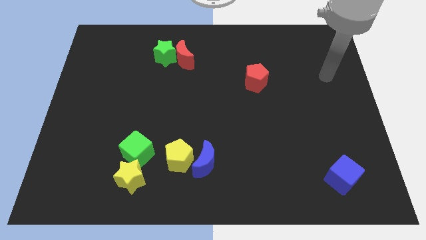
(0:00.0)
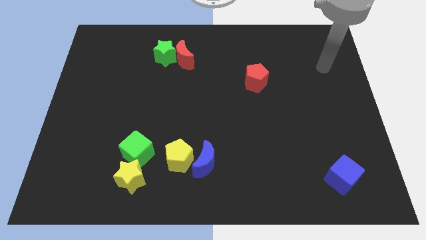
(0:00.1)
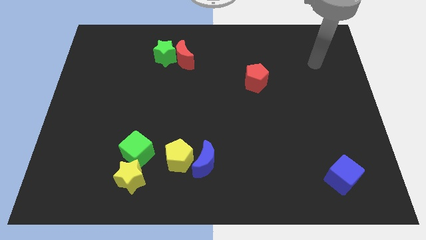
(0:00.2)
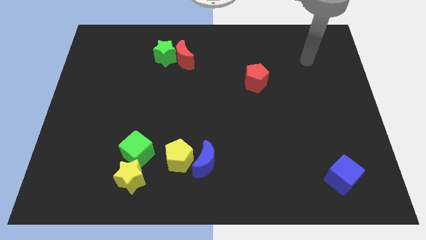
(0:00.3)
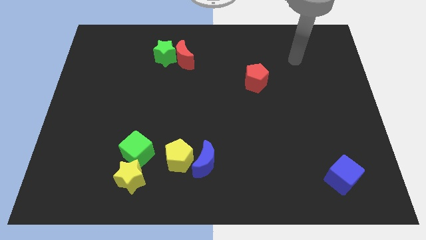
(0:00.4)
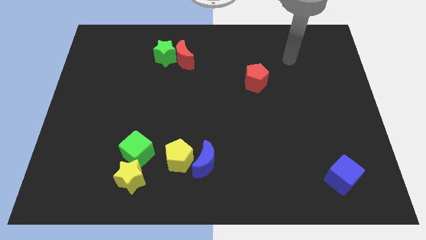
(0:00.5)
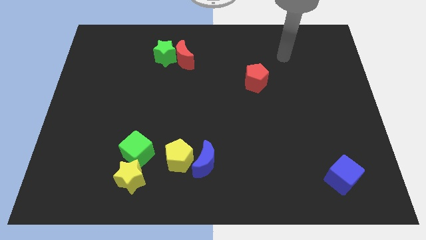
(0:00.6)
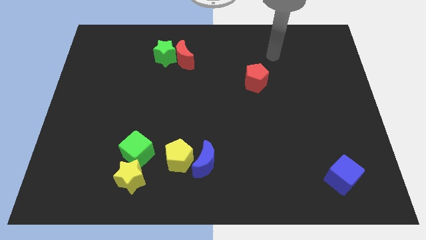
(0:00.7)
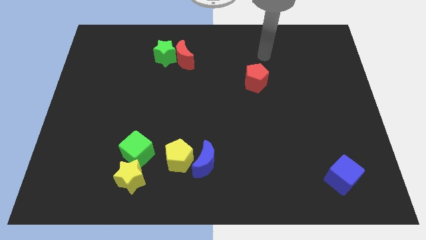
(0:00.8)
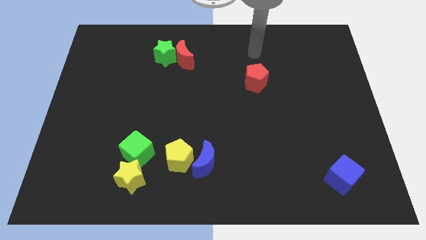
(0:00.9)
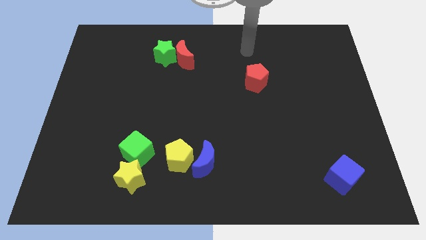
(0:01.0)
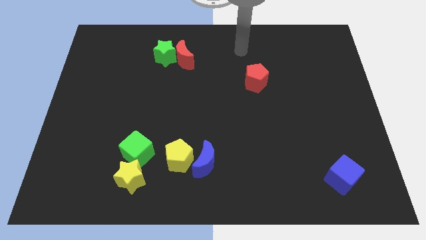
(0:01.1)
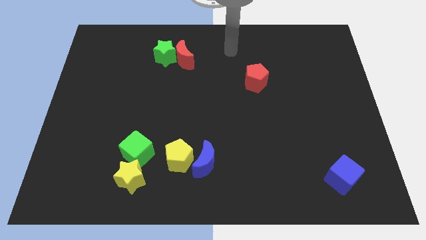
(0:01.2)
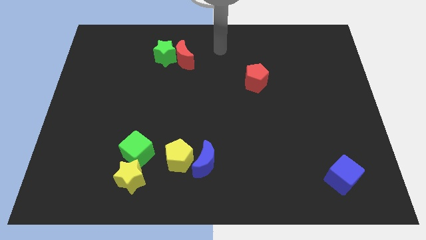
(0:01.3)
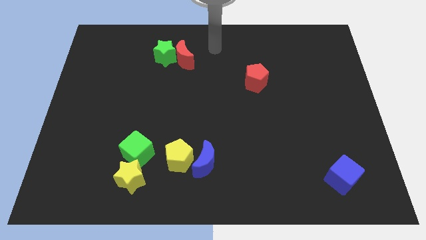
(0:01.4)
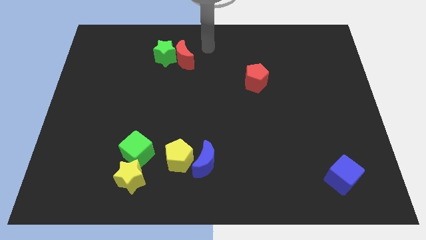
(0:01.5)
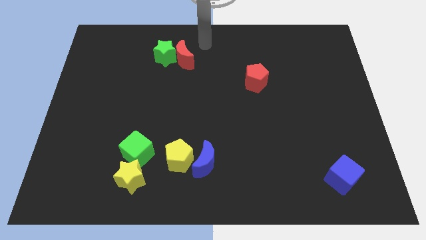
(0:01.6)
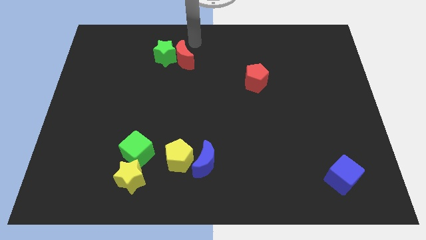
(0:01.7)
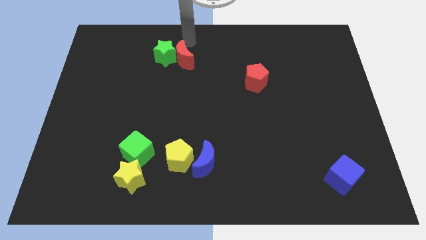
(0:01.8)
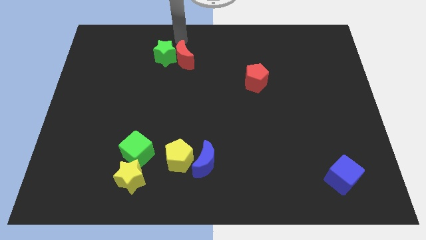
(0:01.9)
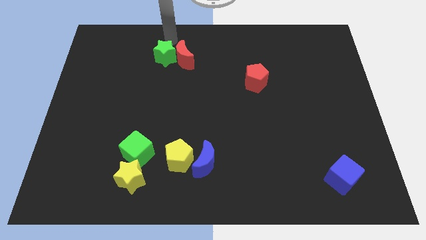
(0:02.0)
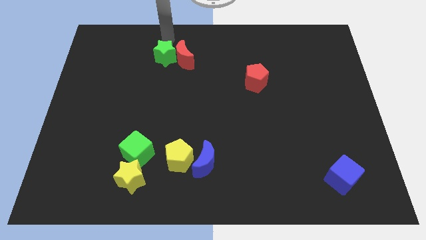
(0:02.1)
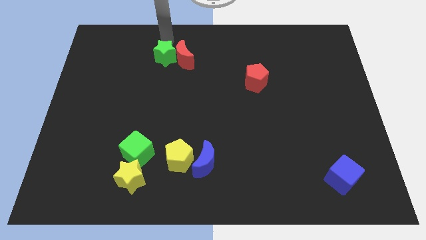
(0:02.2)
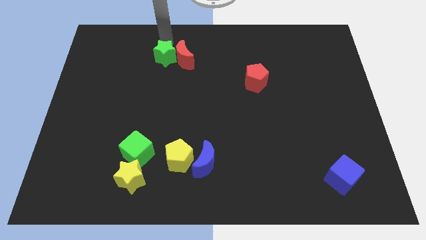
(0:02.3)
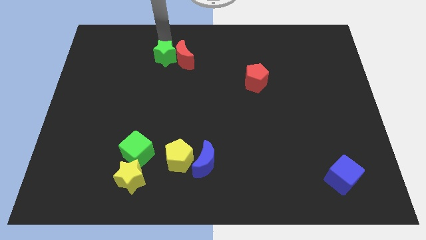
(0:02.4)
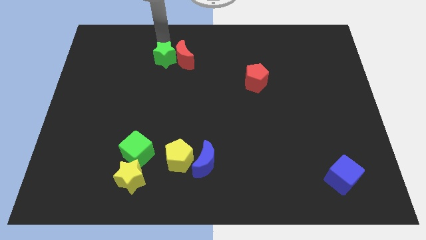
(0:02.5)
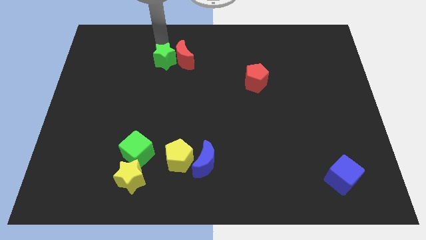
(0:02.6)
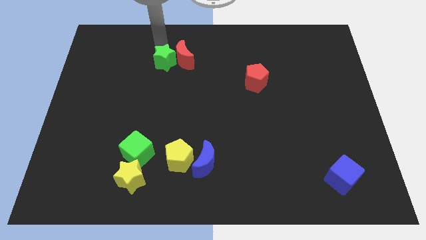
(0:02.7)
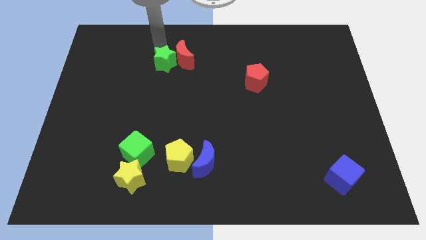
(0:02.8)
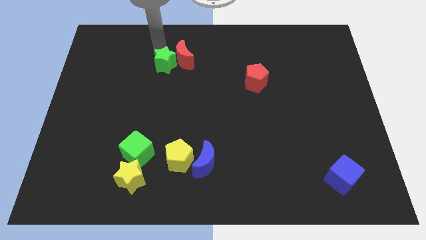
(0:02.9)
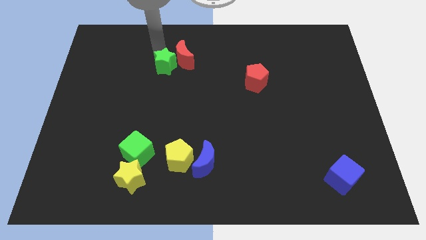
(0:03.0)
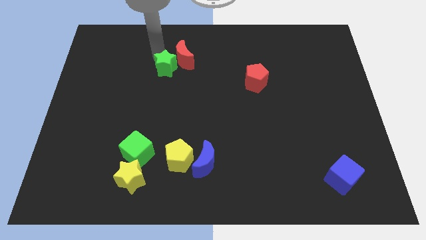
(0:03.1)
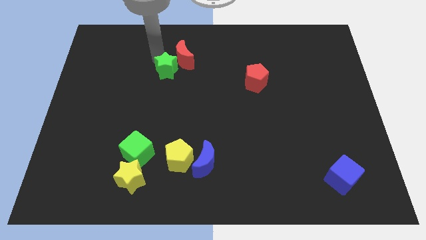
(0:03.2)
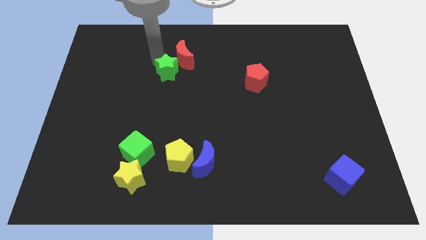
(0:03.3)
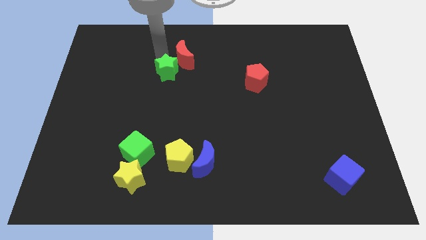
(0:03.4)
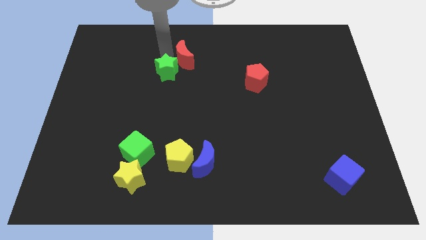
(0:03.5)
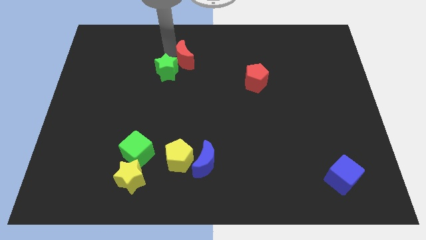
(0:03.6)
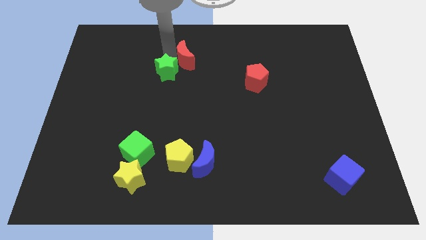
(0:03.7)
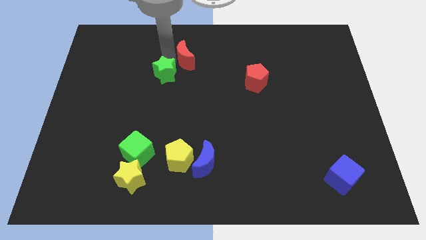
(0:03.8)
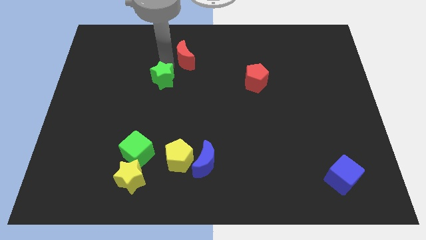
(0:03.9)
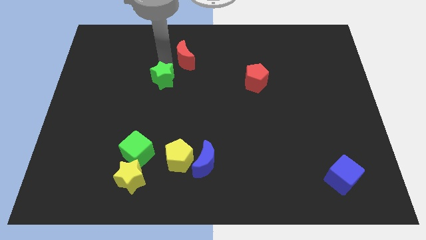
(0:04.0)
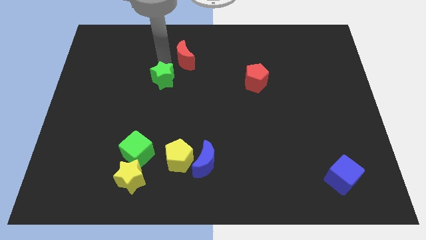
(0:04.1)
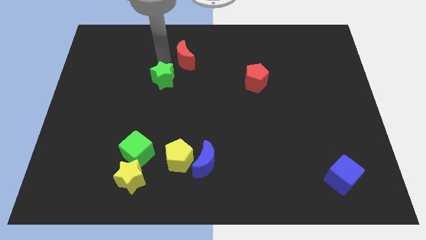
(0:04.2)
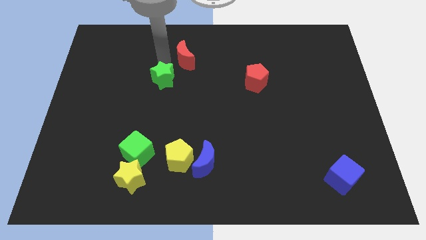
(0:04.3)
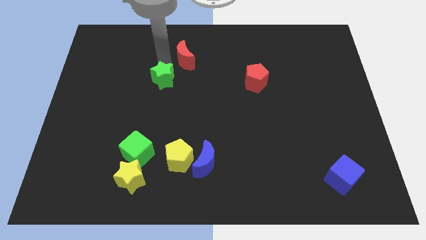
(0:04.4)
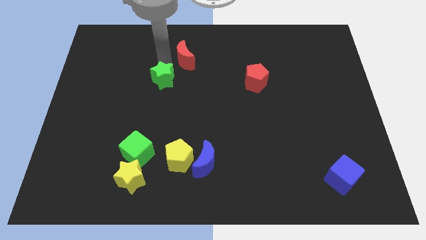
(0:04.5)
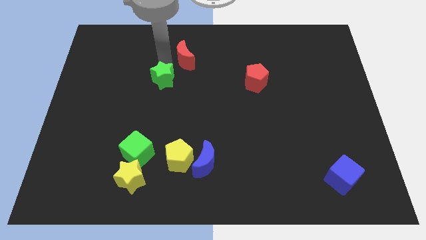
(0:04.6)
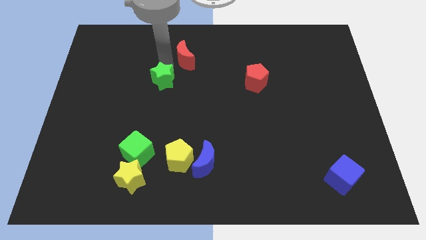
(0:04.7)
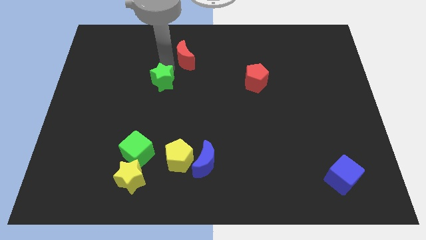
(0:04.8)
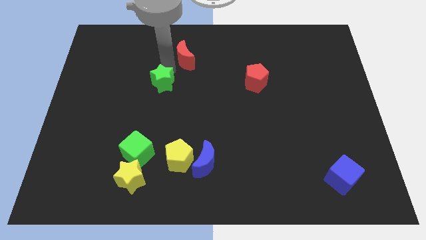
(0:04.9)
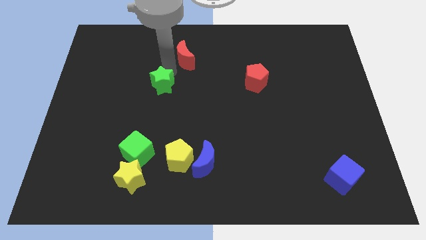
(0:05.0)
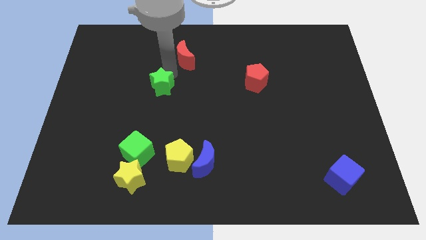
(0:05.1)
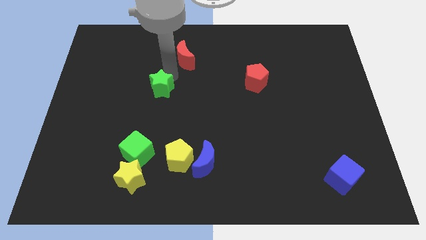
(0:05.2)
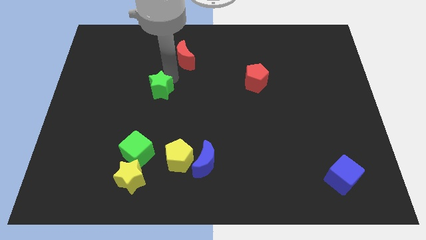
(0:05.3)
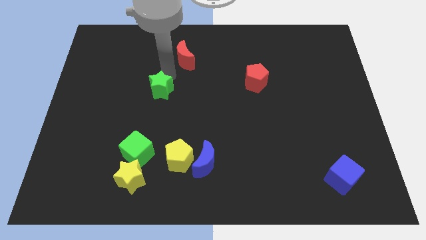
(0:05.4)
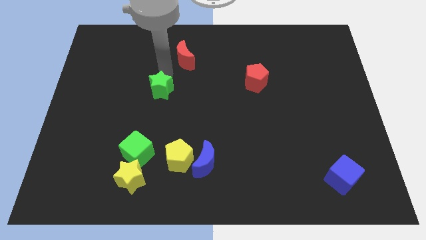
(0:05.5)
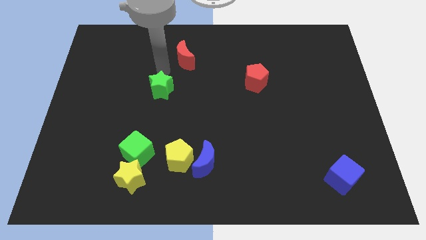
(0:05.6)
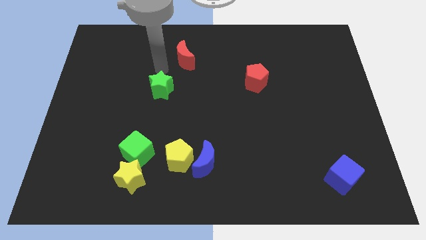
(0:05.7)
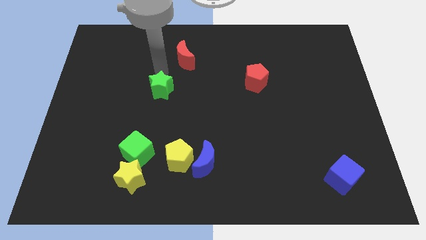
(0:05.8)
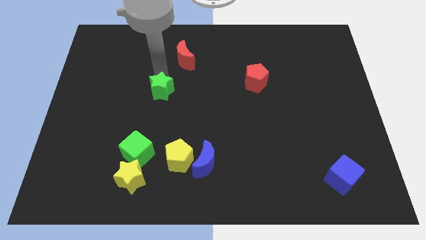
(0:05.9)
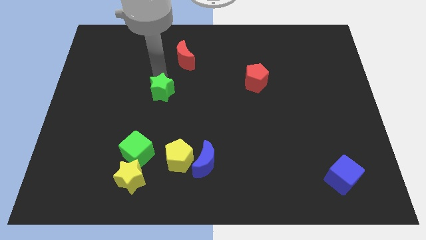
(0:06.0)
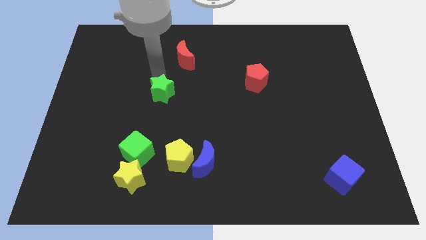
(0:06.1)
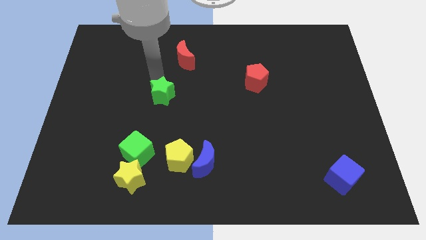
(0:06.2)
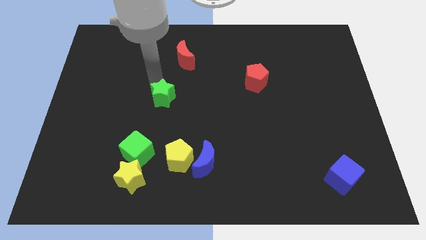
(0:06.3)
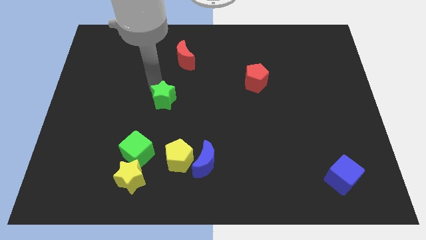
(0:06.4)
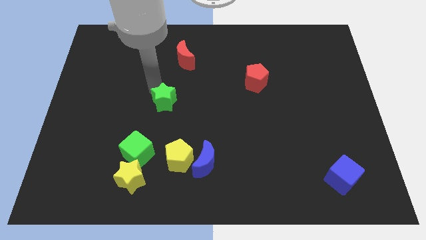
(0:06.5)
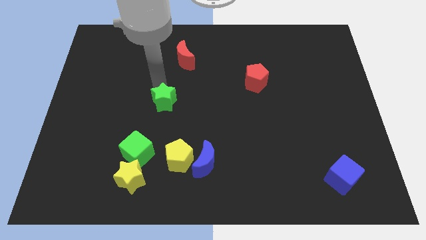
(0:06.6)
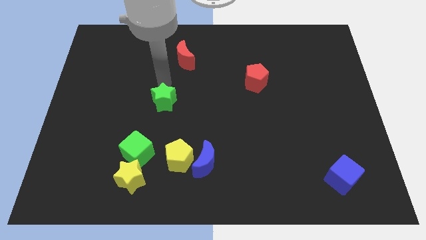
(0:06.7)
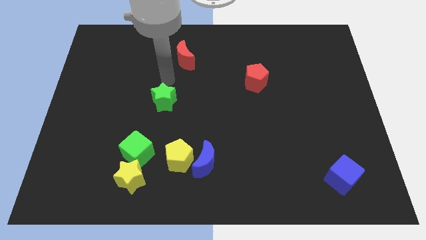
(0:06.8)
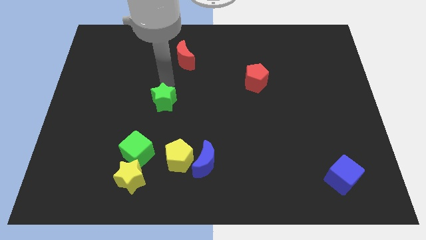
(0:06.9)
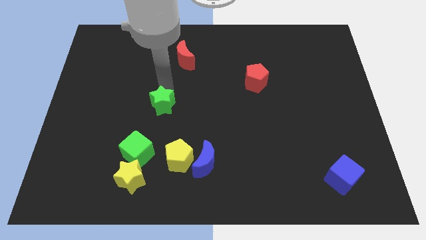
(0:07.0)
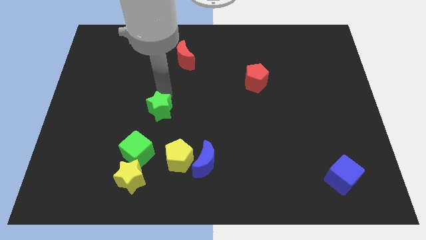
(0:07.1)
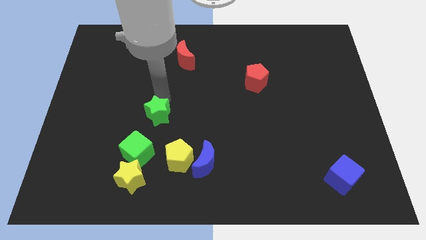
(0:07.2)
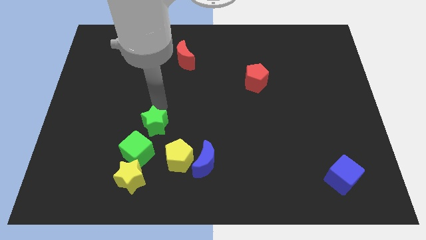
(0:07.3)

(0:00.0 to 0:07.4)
push the green star down

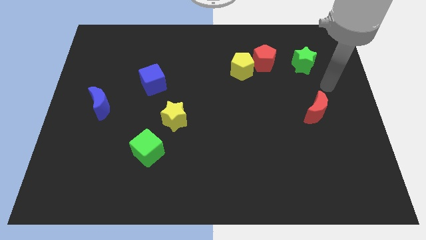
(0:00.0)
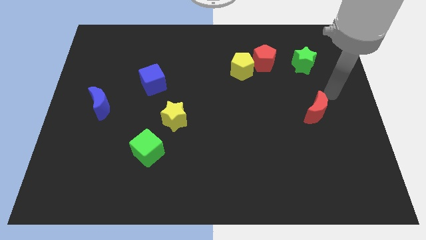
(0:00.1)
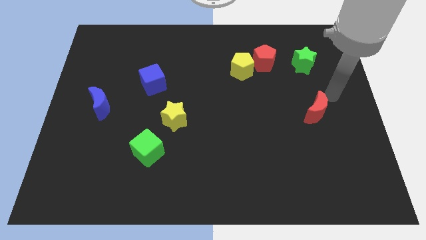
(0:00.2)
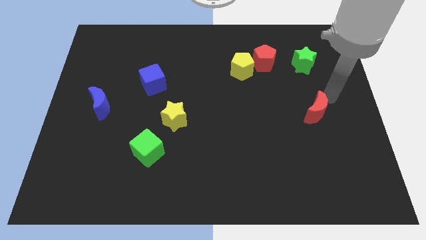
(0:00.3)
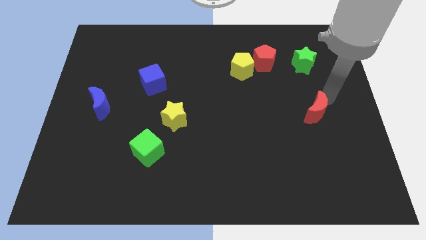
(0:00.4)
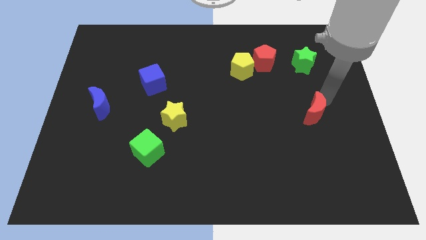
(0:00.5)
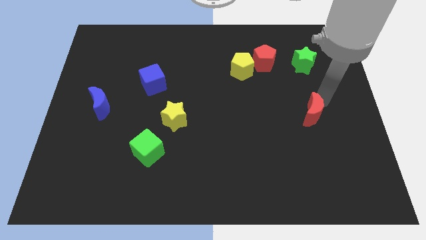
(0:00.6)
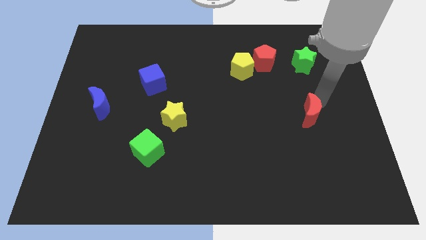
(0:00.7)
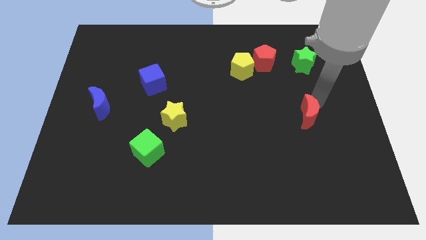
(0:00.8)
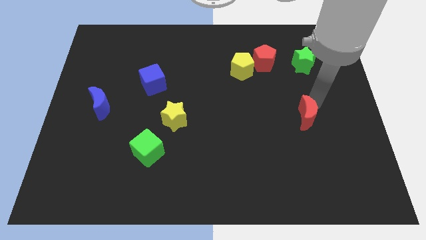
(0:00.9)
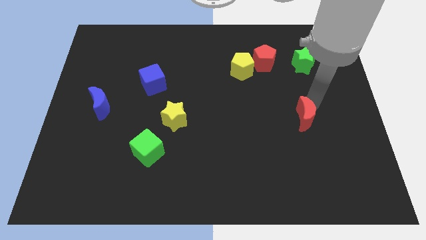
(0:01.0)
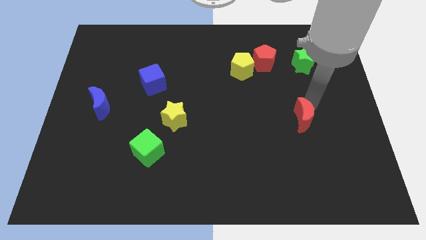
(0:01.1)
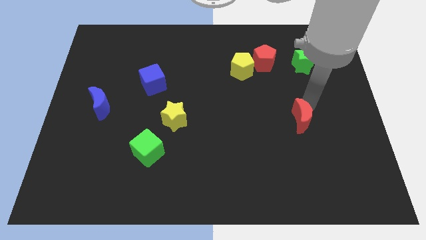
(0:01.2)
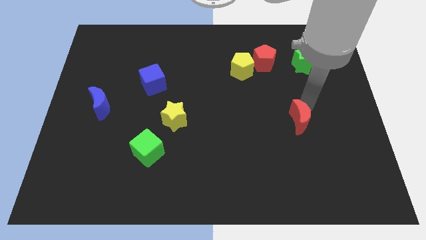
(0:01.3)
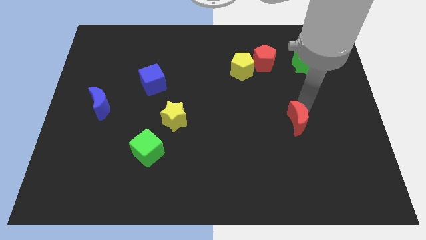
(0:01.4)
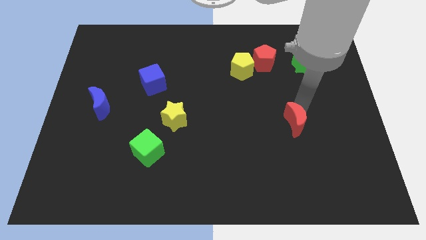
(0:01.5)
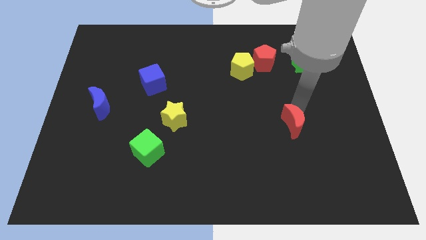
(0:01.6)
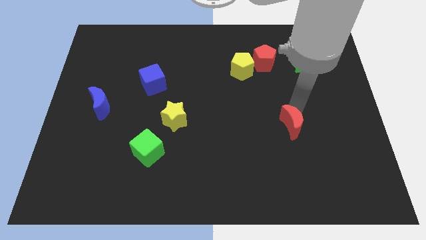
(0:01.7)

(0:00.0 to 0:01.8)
slide the red moon diagonally downwards and left a bit
